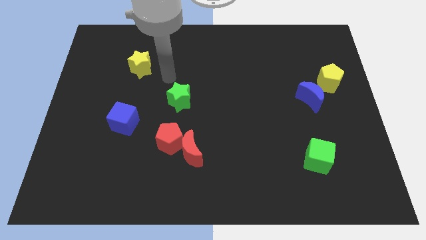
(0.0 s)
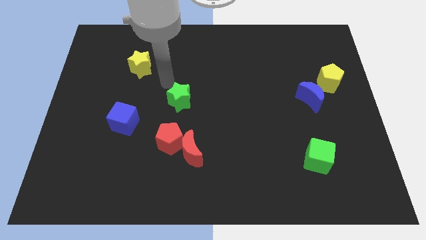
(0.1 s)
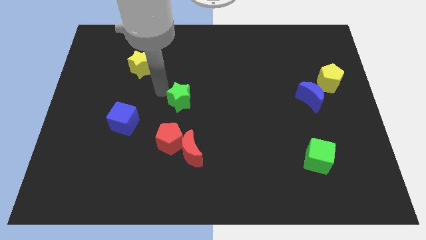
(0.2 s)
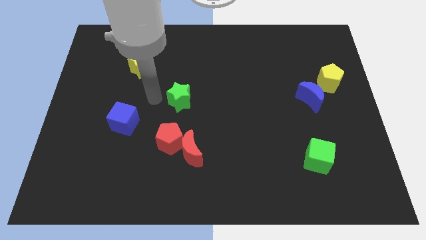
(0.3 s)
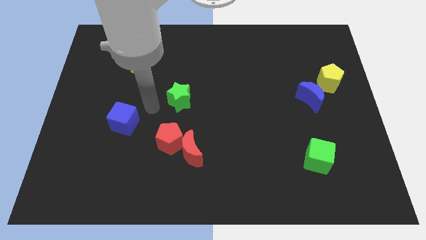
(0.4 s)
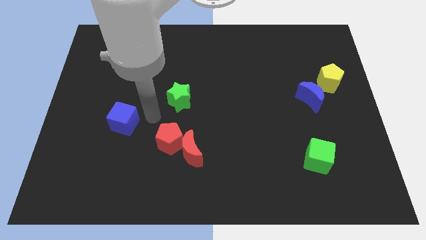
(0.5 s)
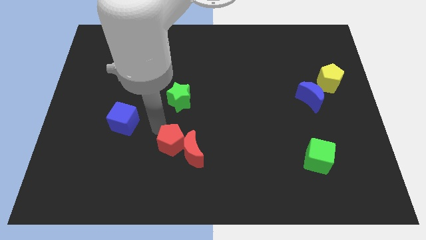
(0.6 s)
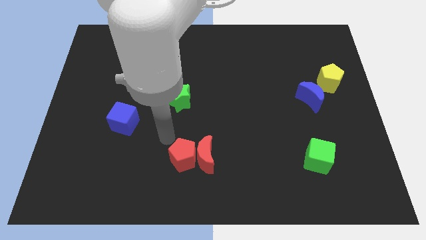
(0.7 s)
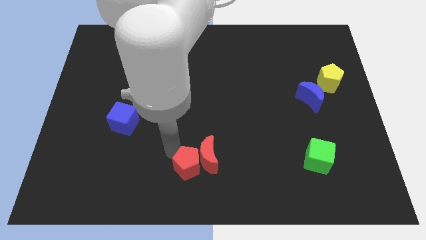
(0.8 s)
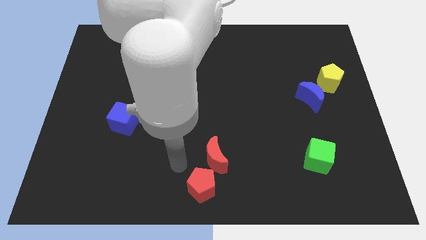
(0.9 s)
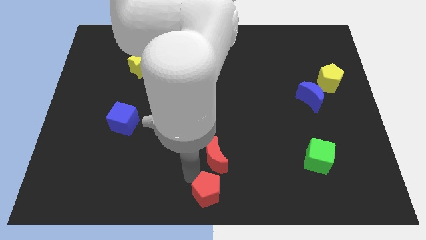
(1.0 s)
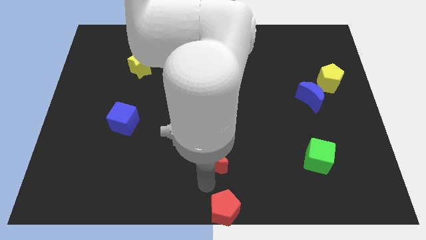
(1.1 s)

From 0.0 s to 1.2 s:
separate the red moon from the red pentagon

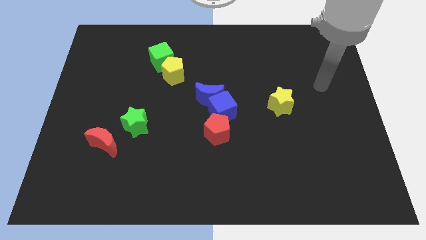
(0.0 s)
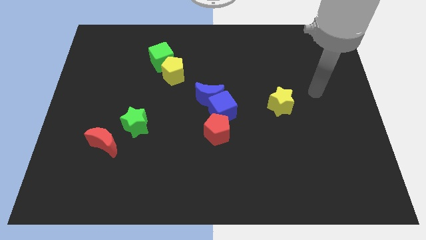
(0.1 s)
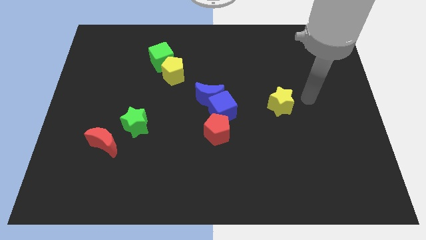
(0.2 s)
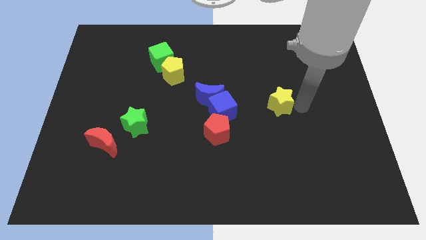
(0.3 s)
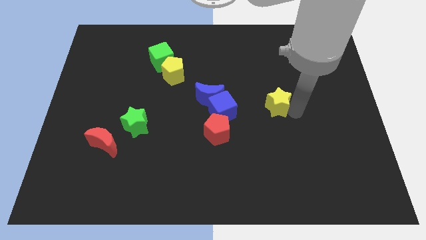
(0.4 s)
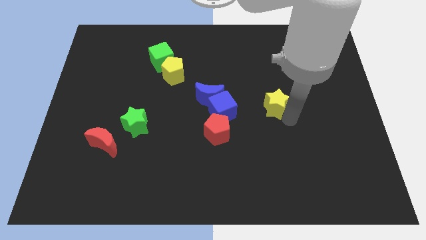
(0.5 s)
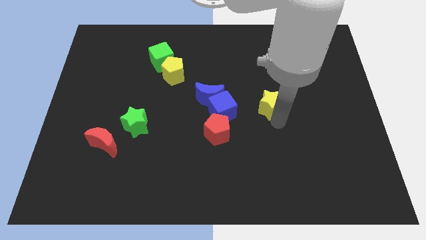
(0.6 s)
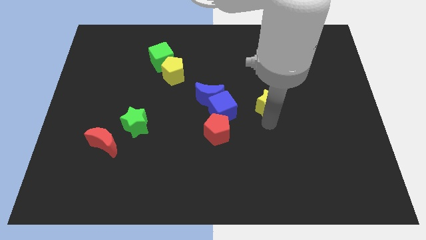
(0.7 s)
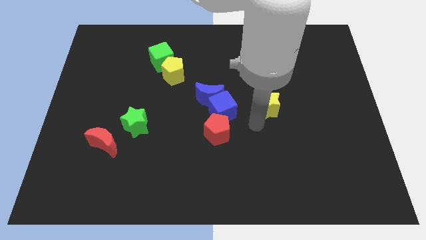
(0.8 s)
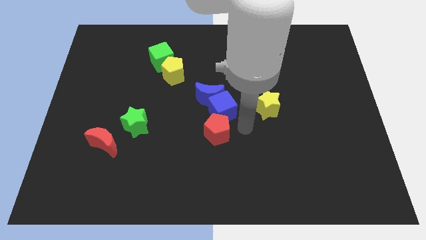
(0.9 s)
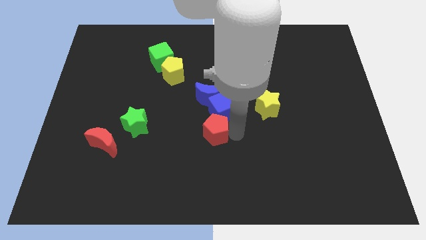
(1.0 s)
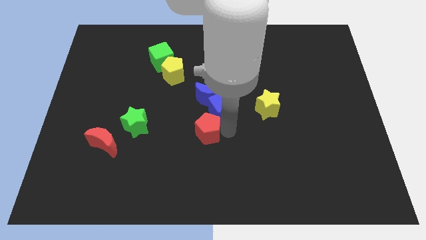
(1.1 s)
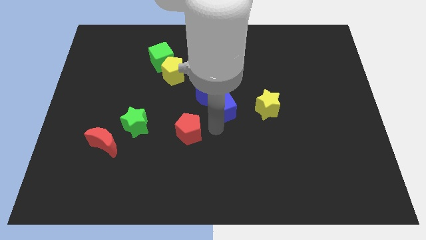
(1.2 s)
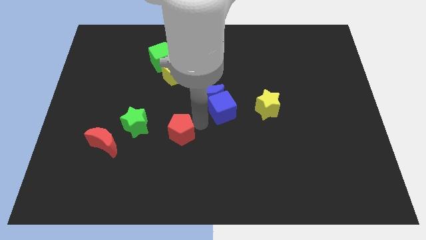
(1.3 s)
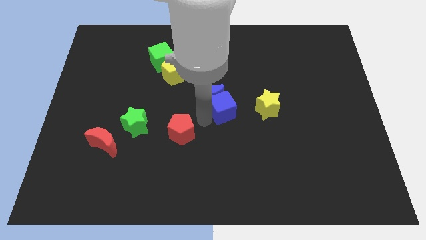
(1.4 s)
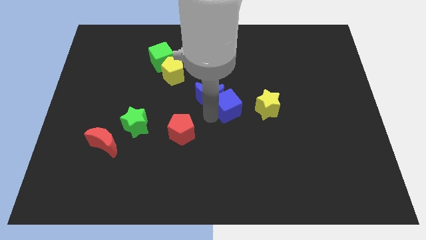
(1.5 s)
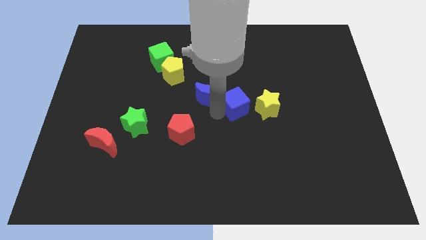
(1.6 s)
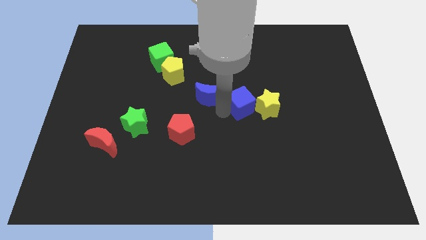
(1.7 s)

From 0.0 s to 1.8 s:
pull the blue cube apart from the blue moon and red pentagon

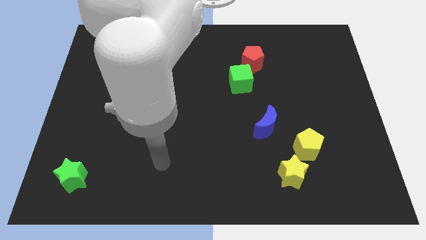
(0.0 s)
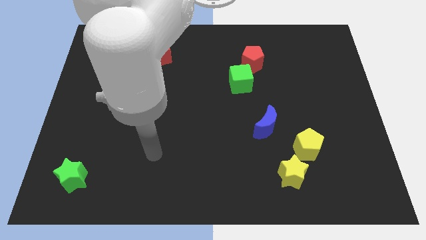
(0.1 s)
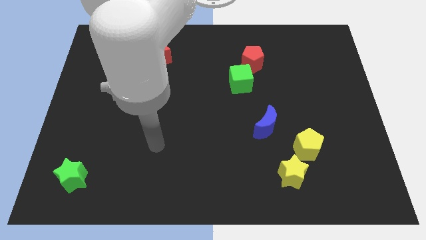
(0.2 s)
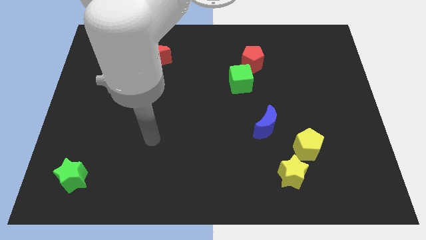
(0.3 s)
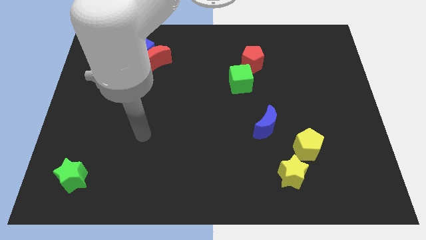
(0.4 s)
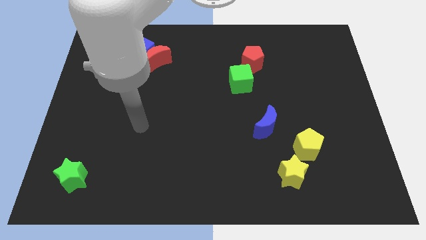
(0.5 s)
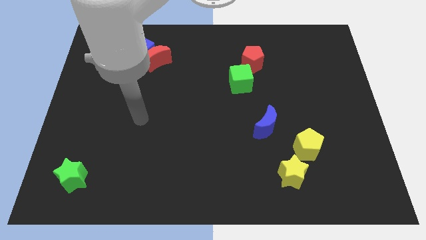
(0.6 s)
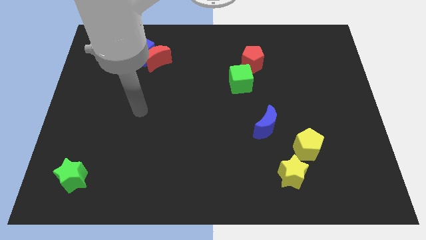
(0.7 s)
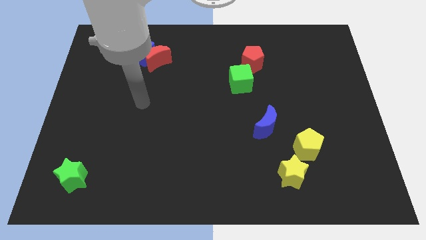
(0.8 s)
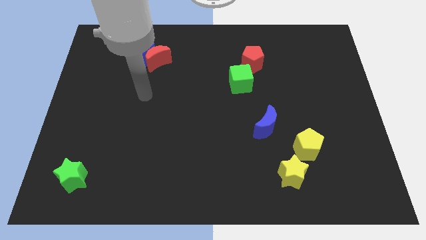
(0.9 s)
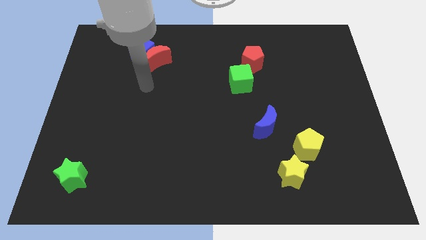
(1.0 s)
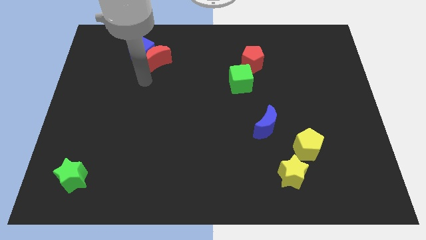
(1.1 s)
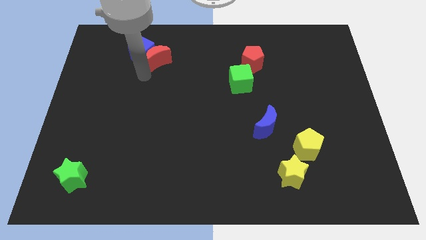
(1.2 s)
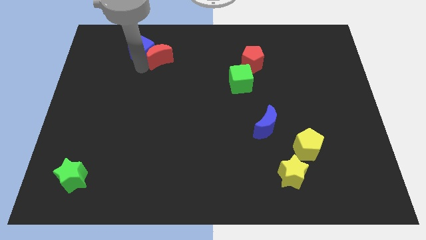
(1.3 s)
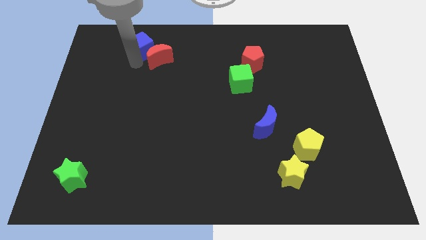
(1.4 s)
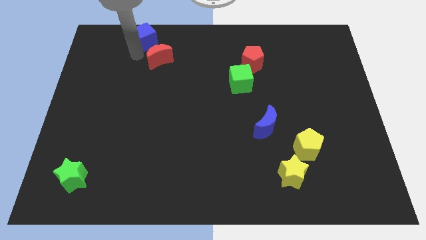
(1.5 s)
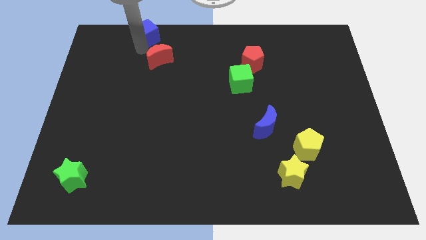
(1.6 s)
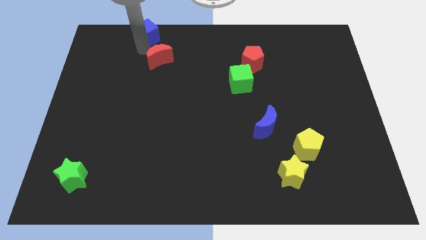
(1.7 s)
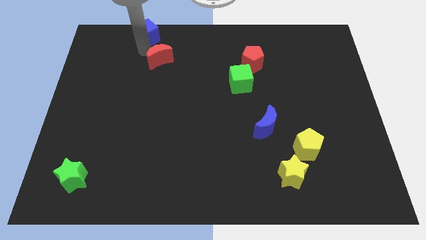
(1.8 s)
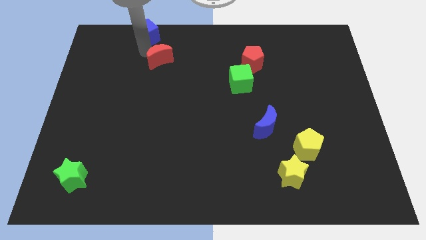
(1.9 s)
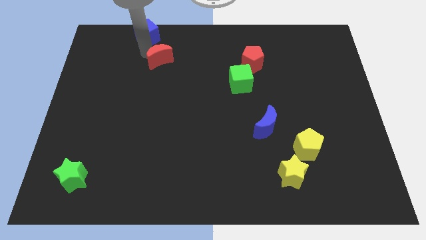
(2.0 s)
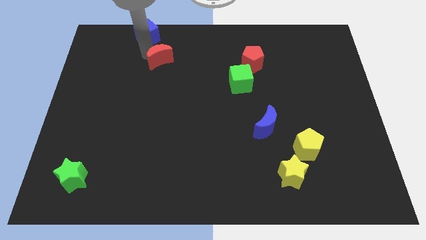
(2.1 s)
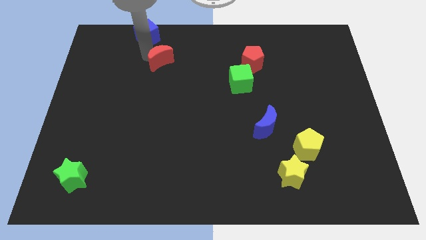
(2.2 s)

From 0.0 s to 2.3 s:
pull the red moon apart from the blue cube

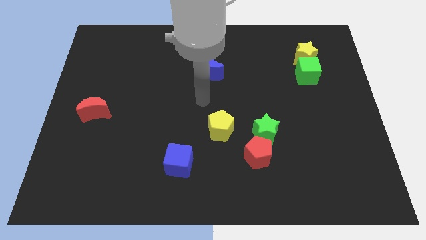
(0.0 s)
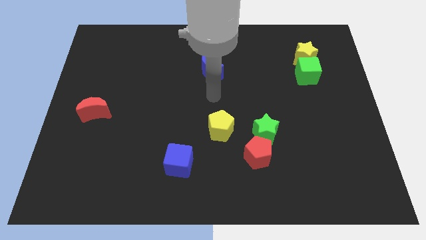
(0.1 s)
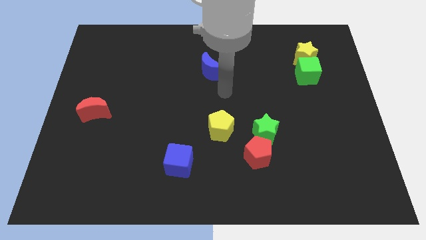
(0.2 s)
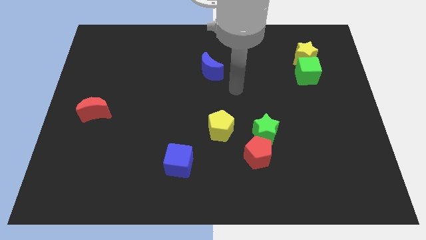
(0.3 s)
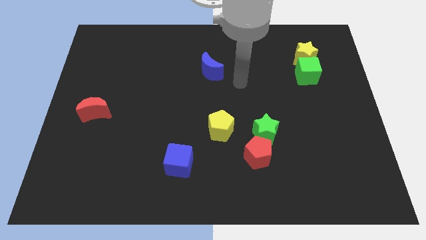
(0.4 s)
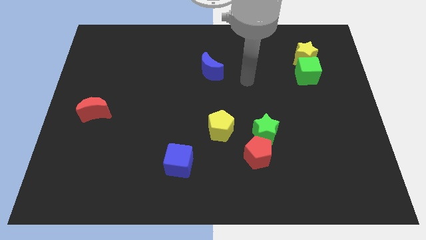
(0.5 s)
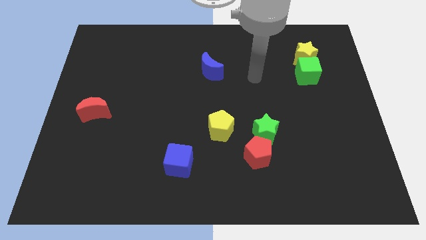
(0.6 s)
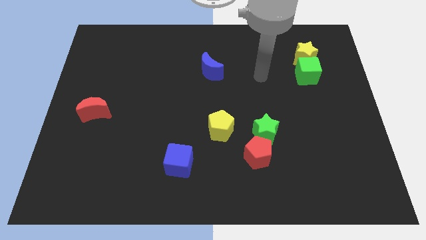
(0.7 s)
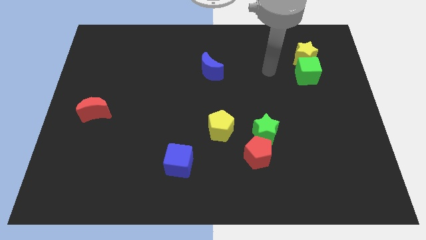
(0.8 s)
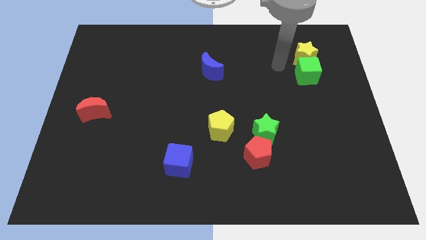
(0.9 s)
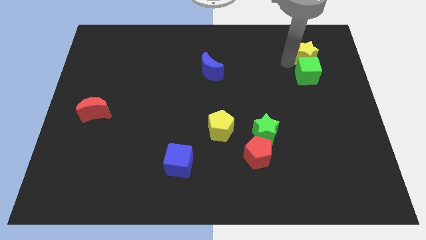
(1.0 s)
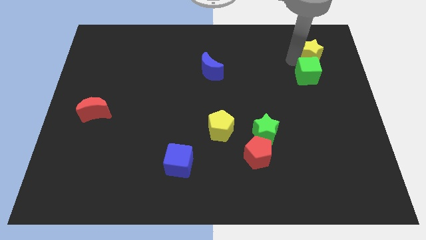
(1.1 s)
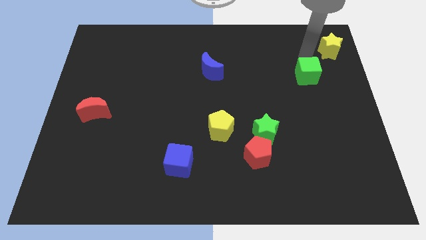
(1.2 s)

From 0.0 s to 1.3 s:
pull the green cube apart from the yellow star

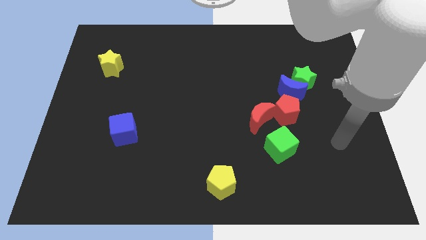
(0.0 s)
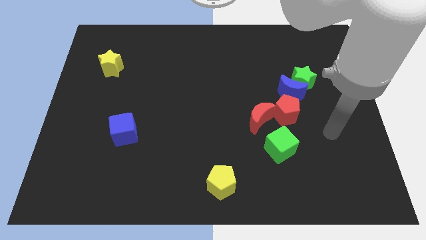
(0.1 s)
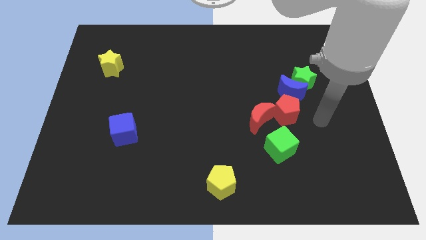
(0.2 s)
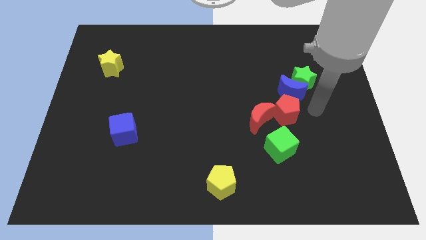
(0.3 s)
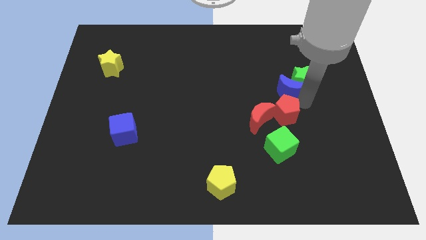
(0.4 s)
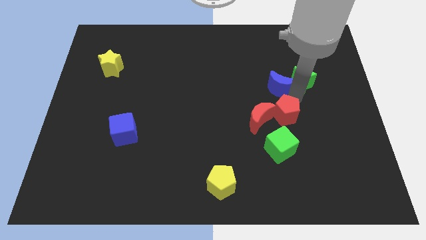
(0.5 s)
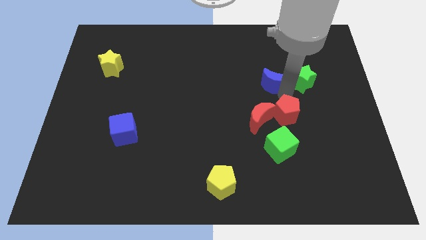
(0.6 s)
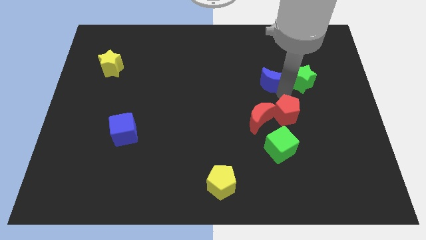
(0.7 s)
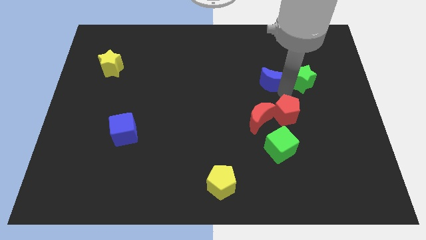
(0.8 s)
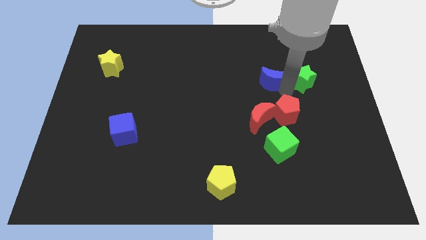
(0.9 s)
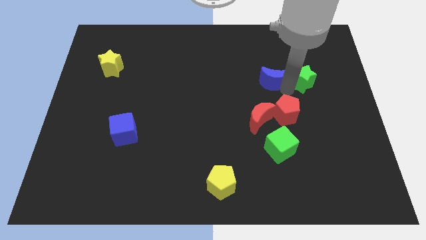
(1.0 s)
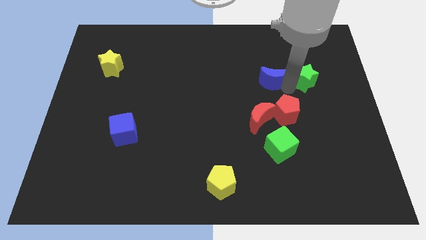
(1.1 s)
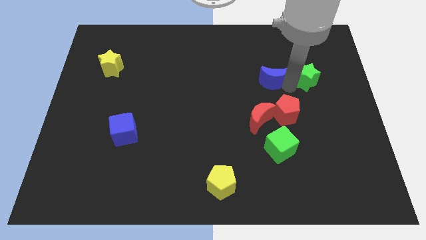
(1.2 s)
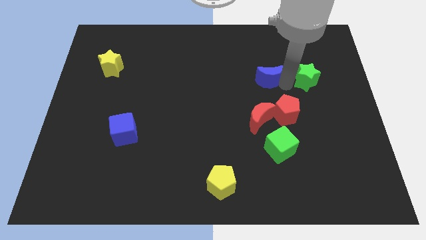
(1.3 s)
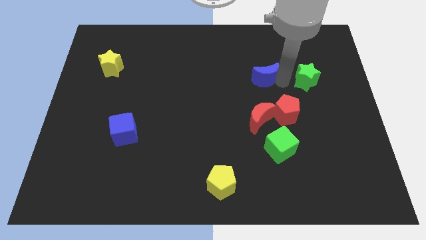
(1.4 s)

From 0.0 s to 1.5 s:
separate the green star from the blue moon

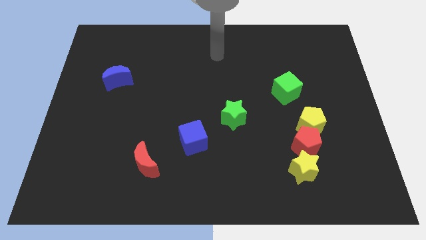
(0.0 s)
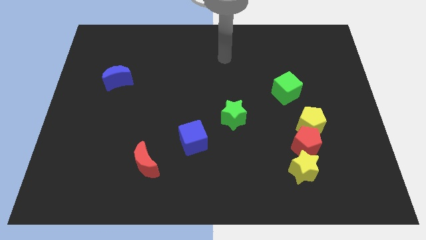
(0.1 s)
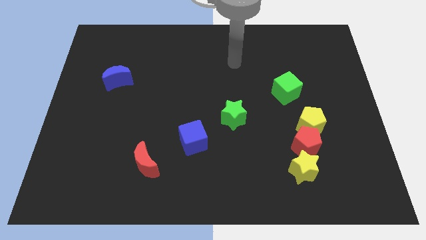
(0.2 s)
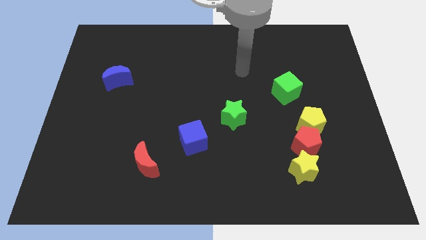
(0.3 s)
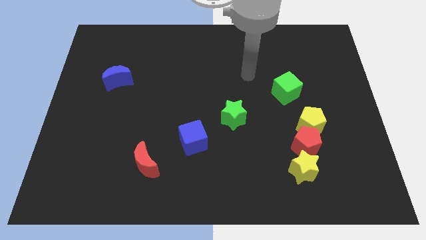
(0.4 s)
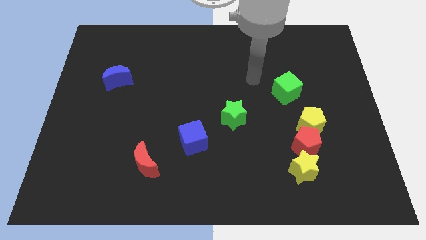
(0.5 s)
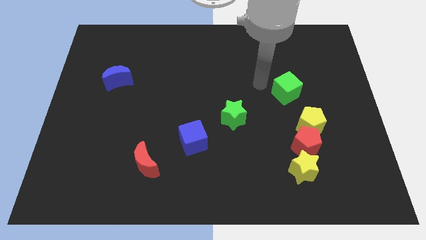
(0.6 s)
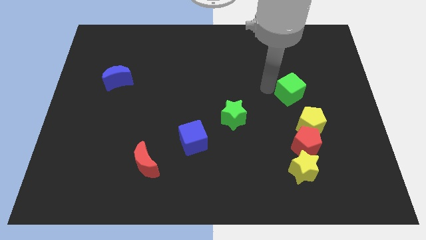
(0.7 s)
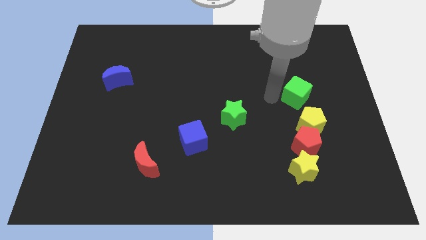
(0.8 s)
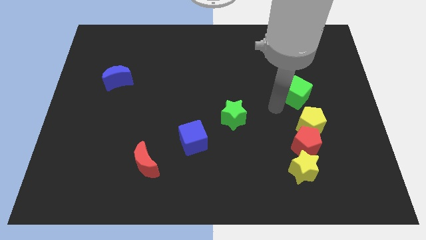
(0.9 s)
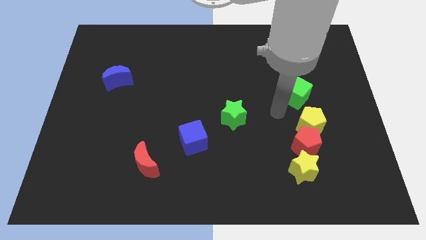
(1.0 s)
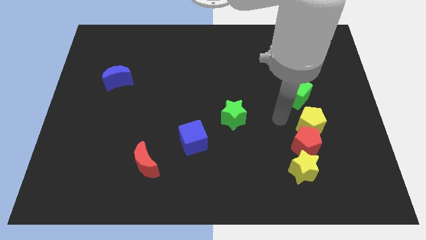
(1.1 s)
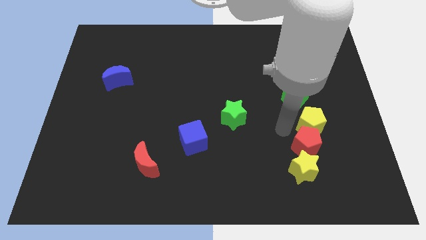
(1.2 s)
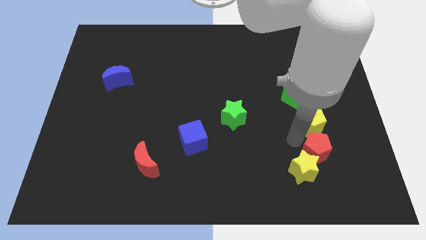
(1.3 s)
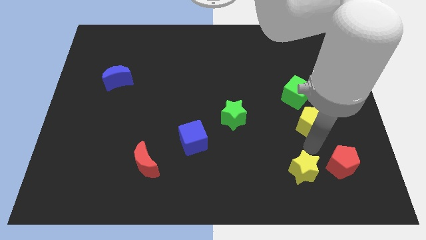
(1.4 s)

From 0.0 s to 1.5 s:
pull the yellow pentagon apart from the red pentagon
